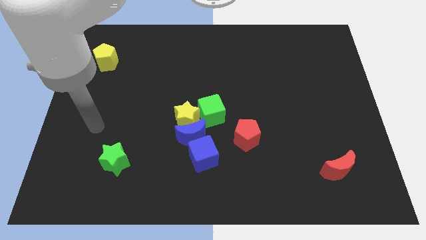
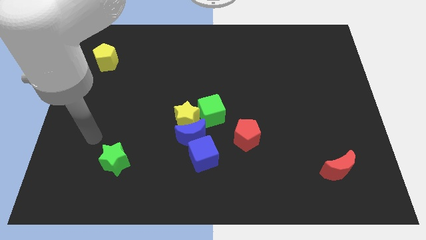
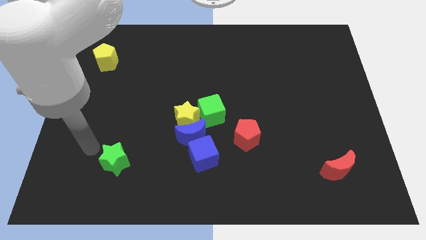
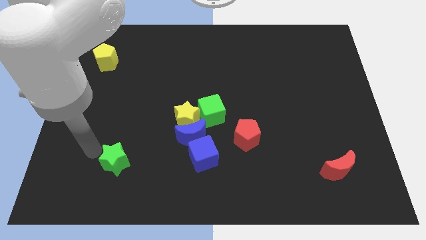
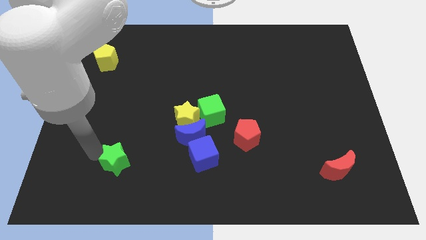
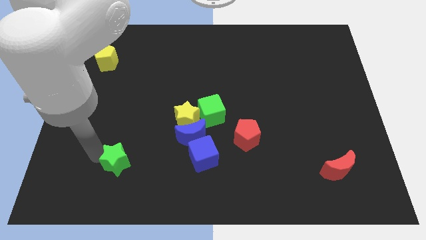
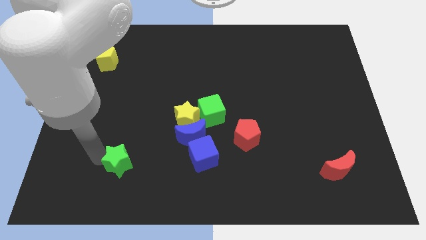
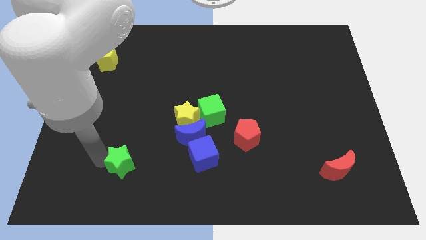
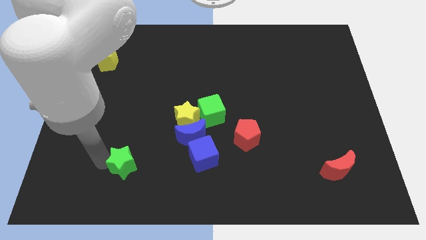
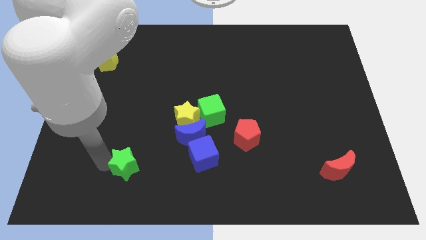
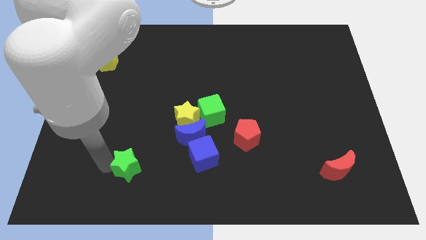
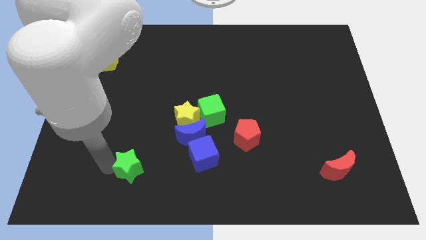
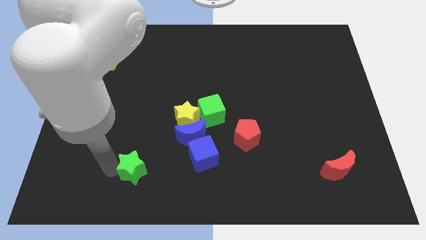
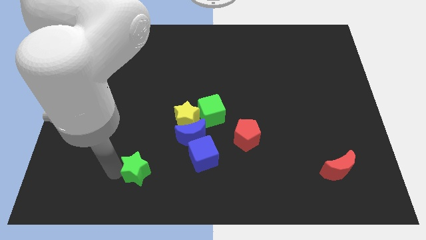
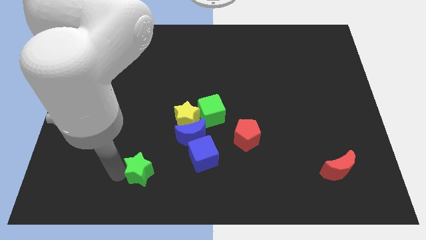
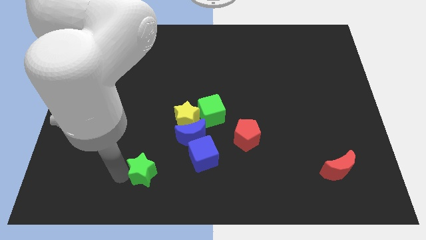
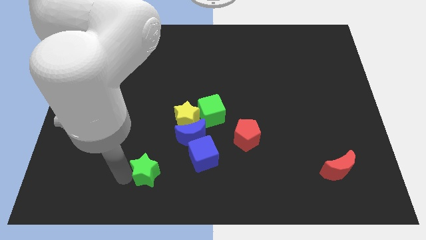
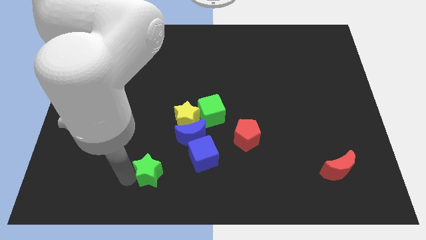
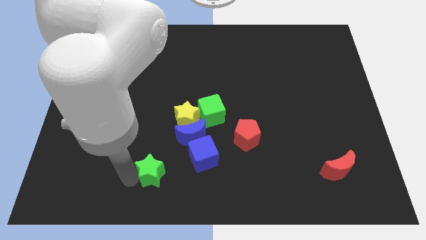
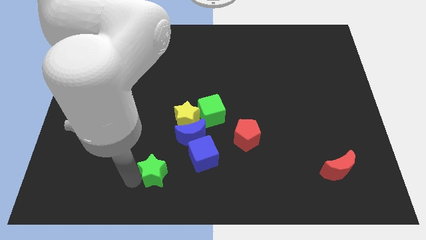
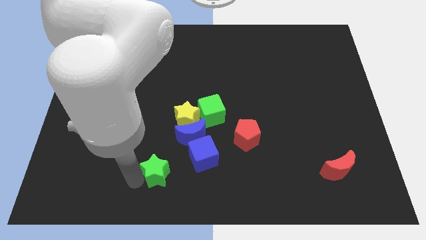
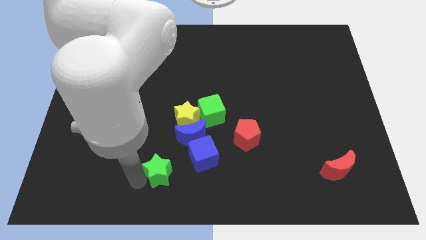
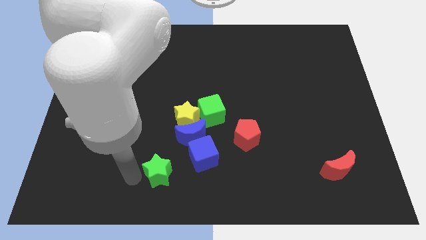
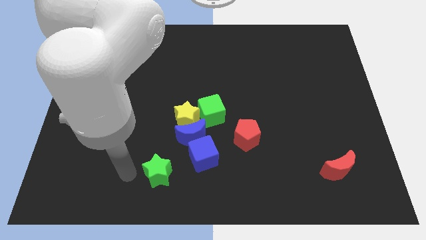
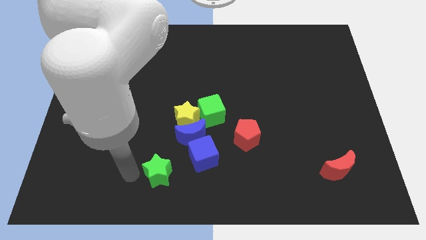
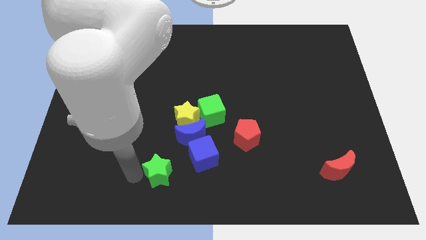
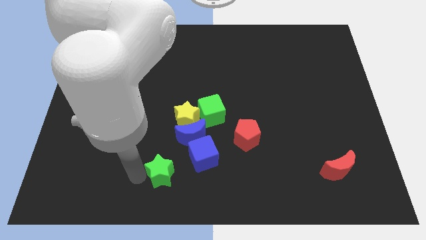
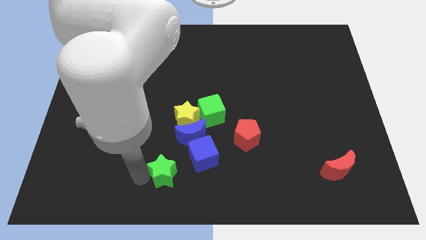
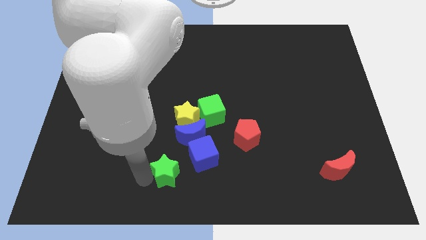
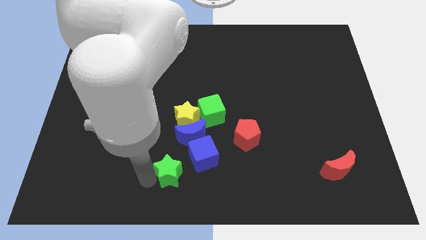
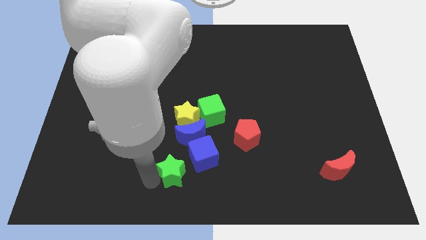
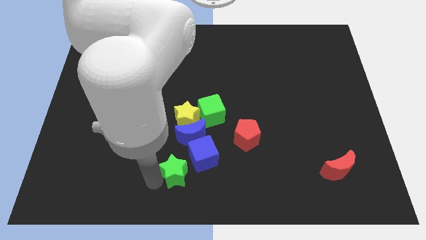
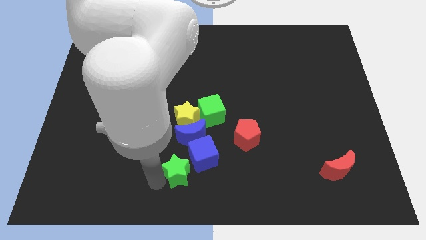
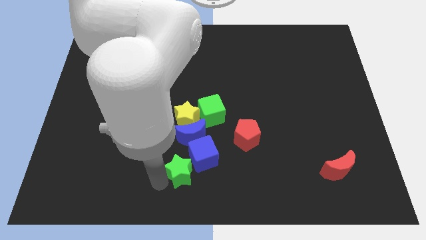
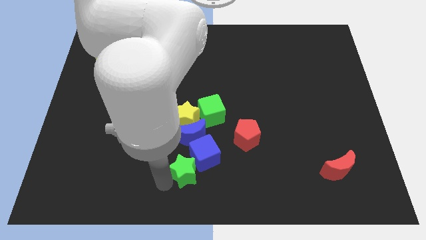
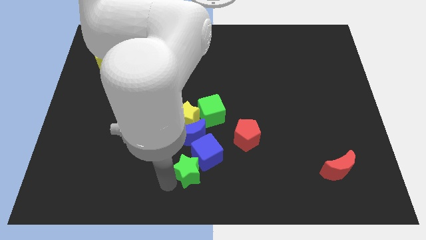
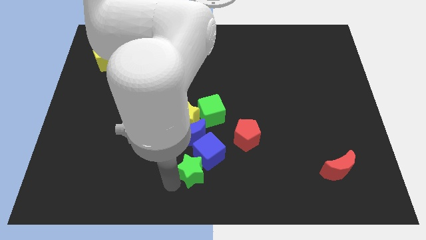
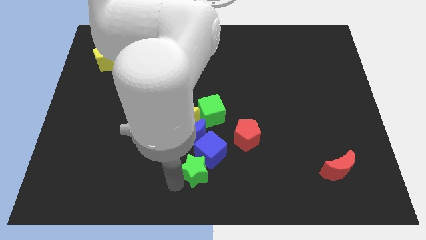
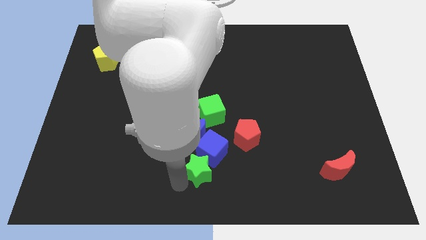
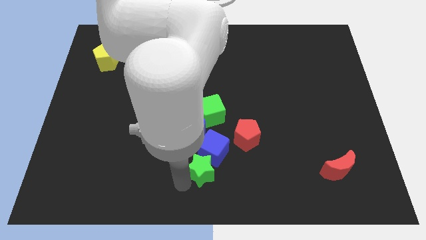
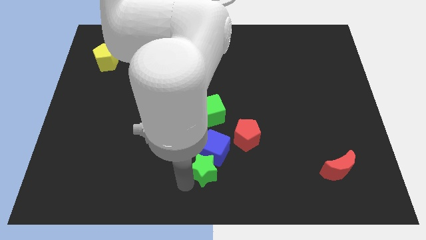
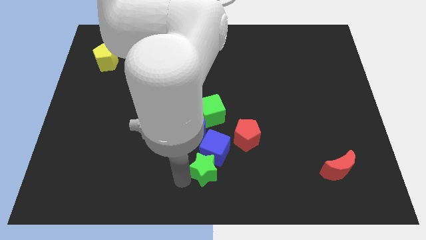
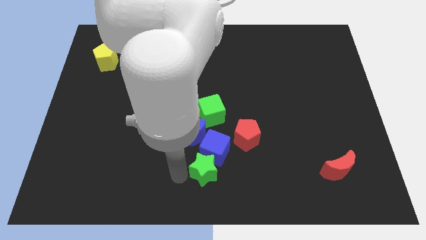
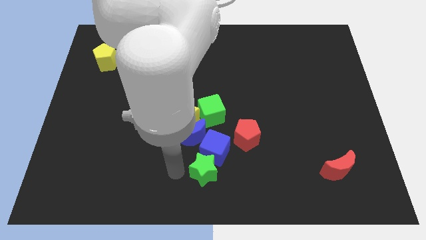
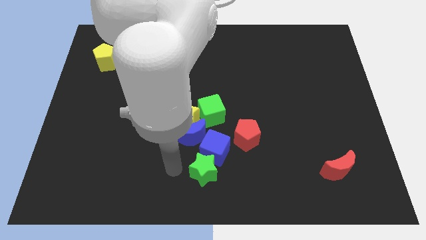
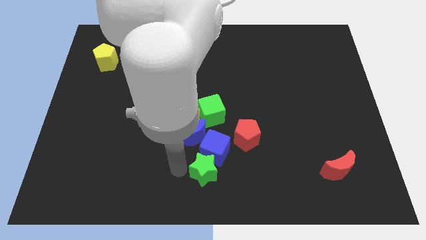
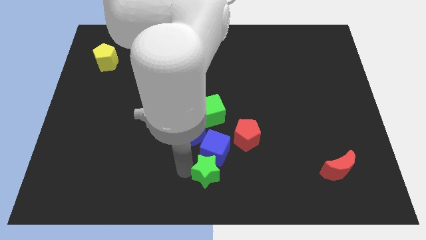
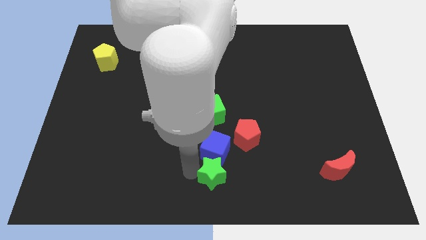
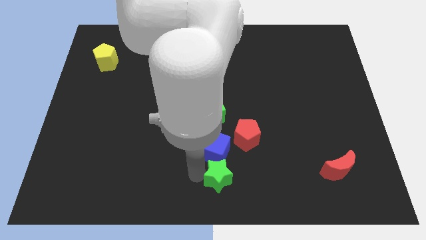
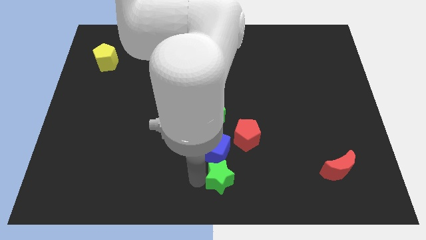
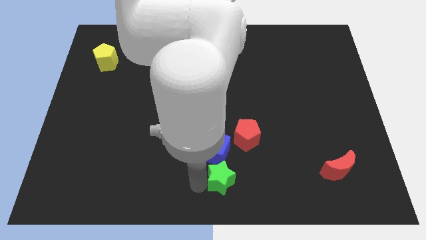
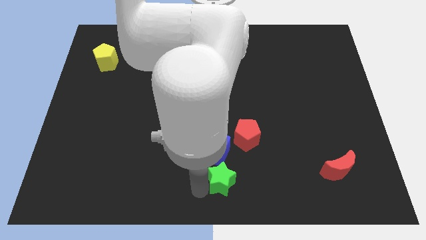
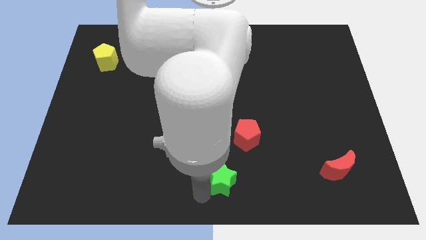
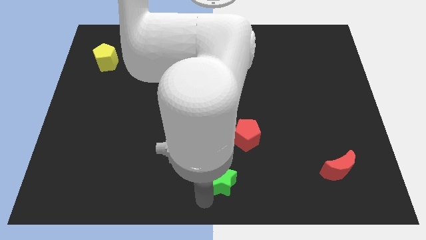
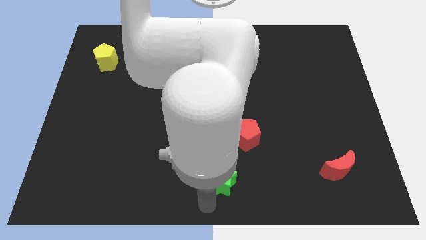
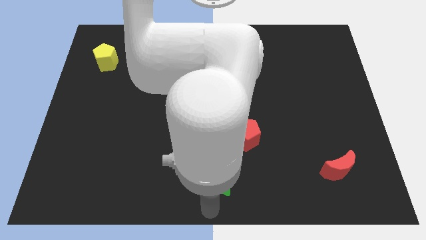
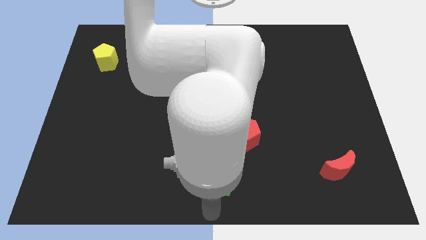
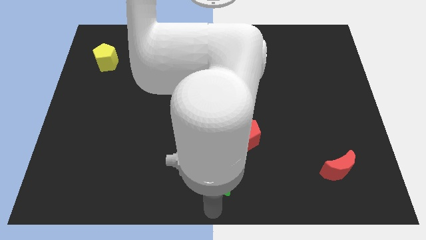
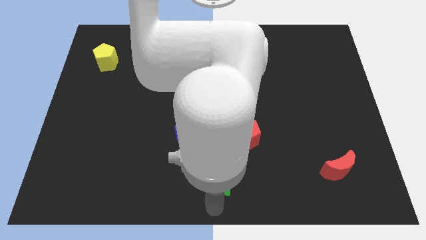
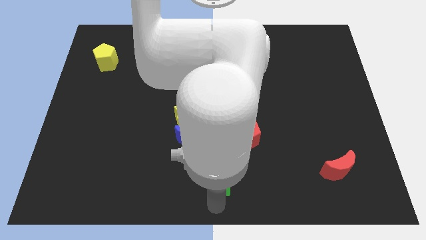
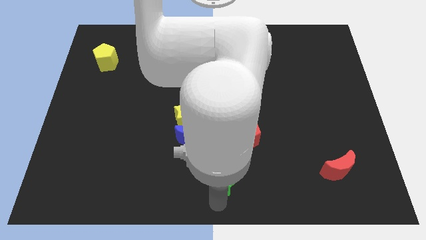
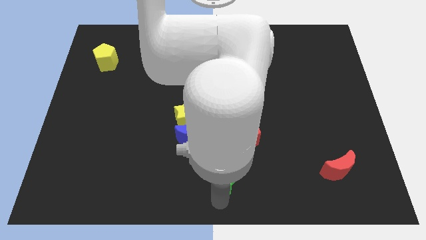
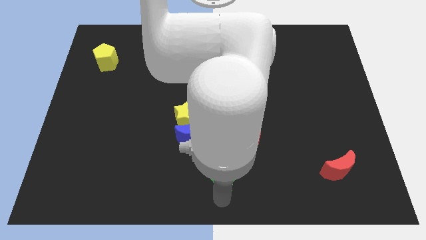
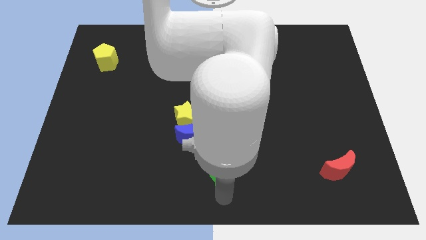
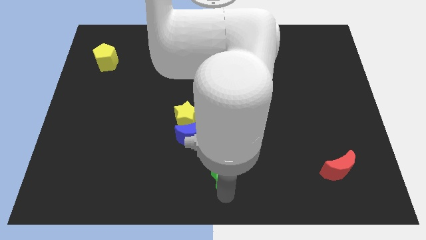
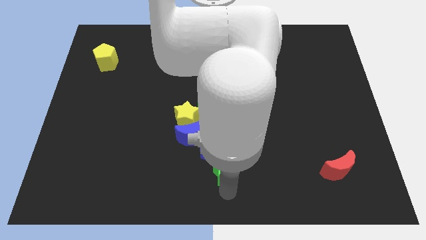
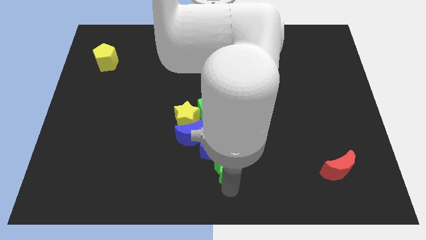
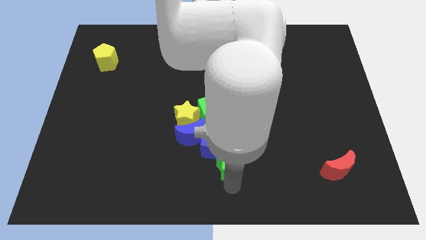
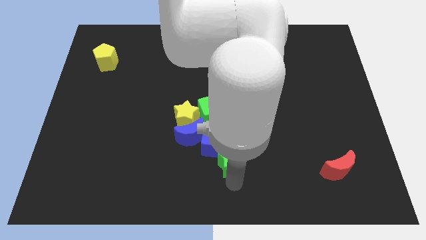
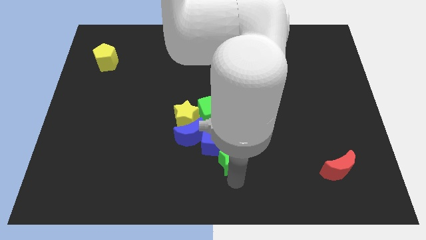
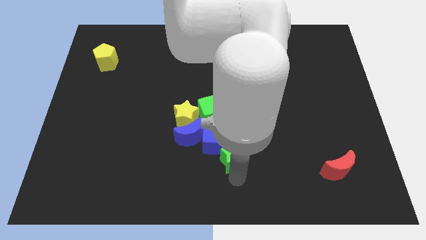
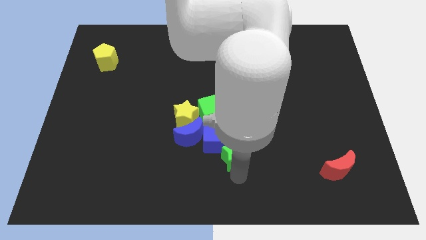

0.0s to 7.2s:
put the green star next to the red pentagon
